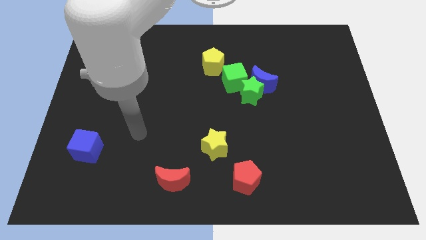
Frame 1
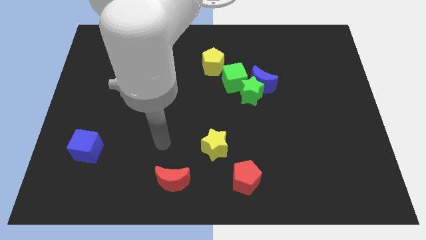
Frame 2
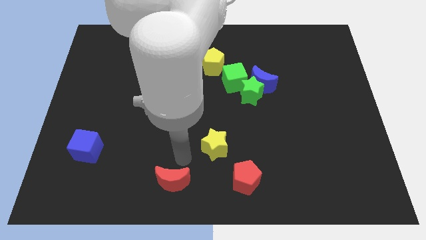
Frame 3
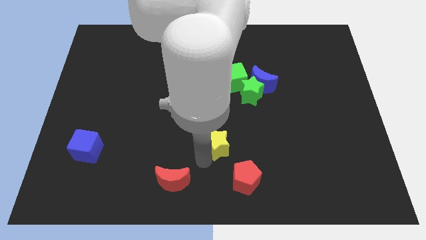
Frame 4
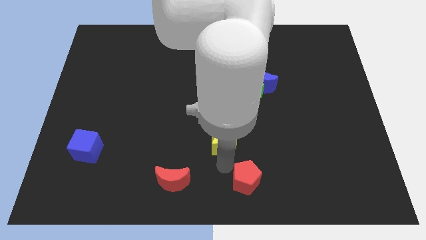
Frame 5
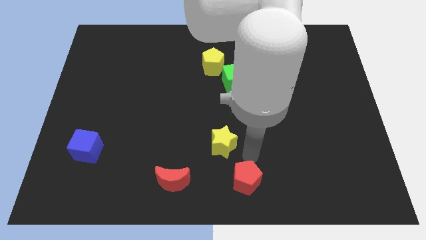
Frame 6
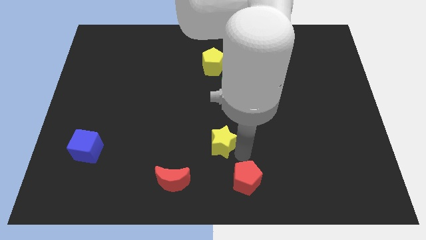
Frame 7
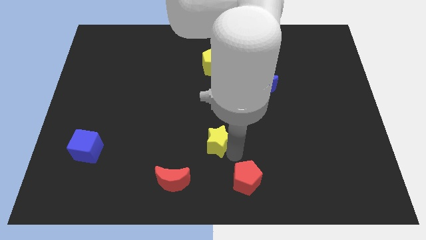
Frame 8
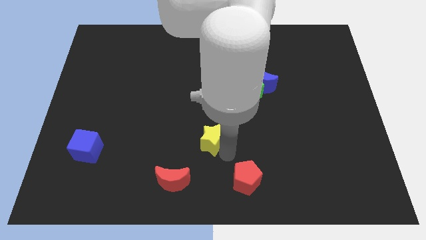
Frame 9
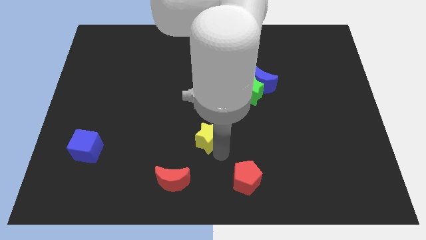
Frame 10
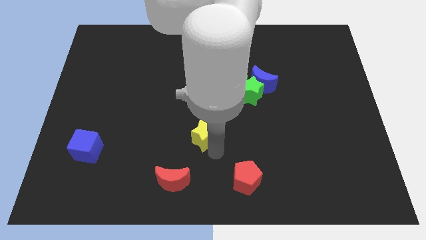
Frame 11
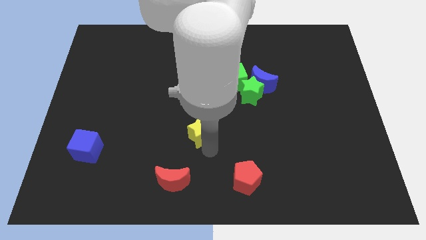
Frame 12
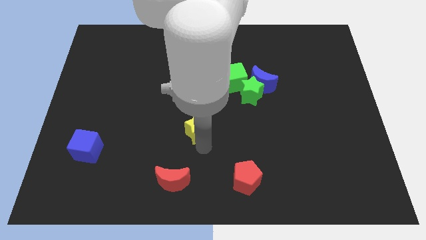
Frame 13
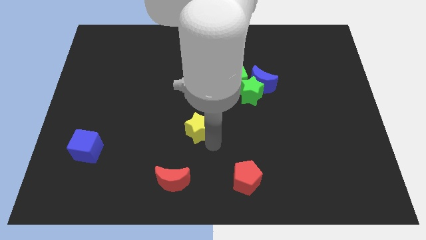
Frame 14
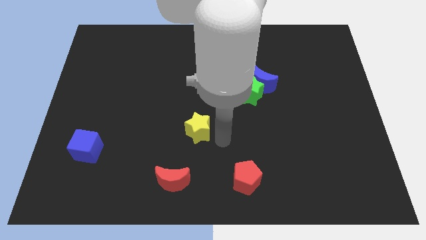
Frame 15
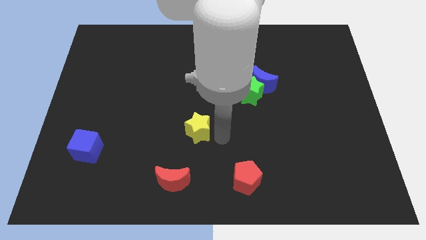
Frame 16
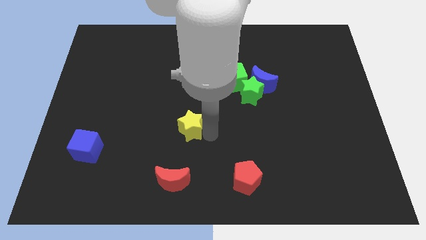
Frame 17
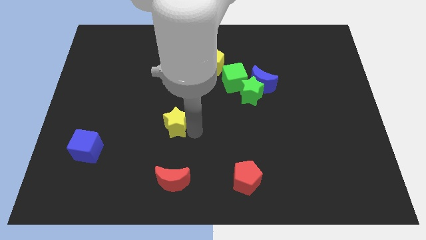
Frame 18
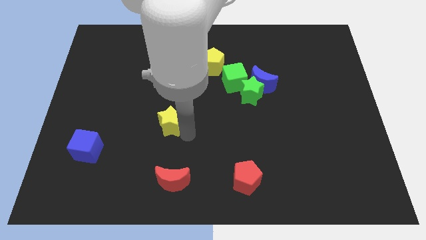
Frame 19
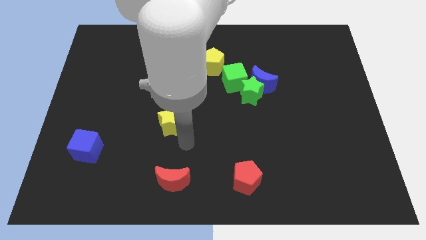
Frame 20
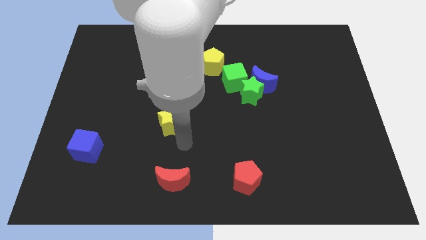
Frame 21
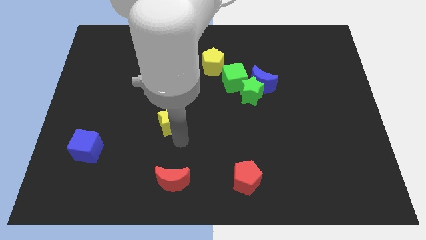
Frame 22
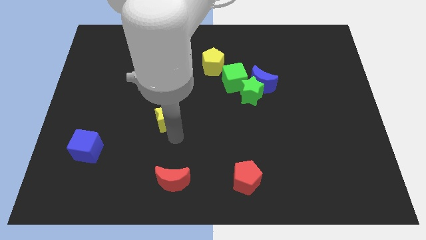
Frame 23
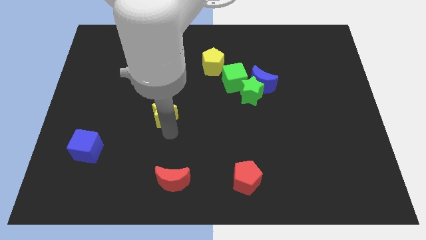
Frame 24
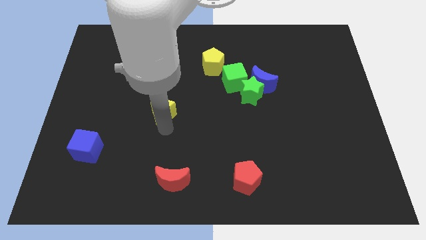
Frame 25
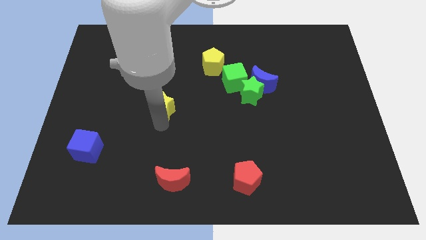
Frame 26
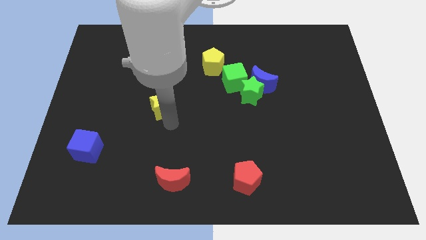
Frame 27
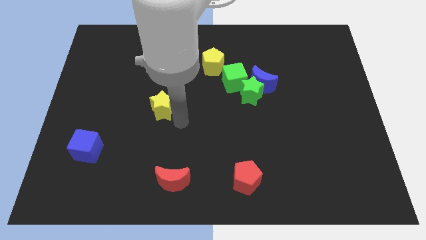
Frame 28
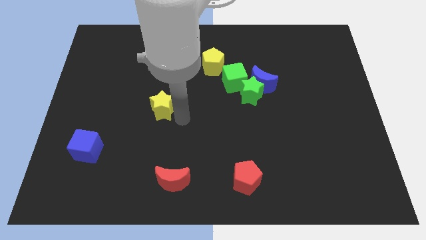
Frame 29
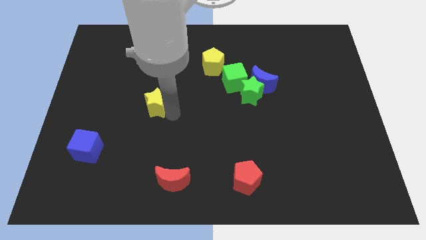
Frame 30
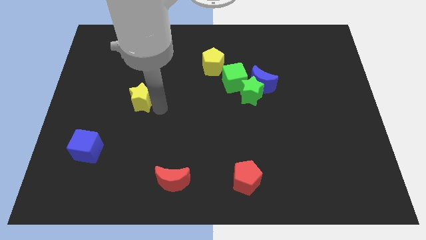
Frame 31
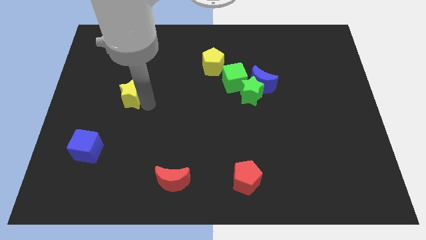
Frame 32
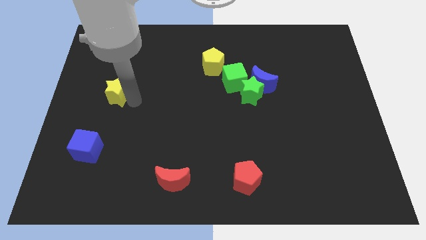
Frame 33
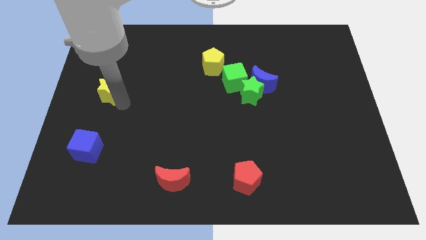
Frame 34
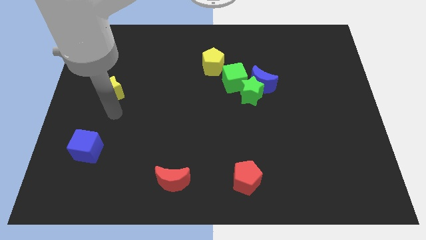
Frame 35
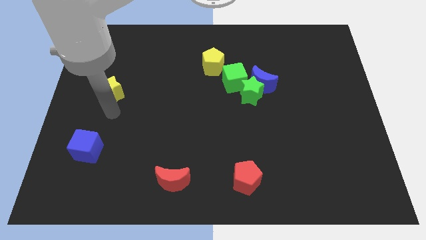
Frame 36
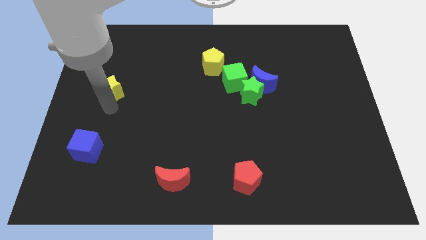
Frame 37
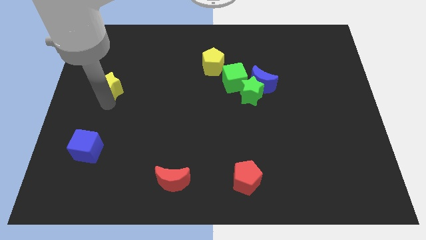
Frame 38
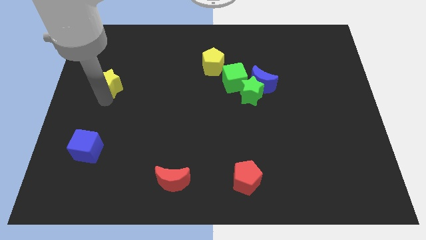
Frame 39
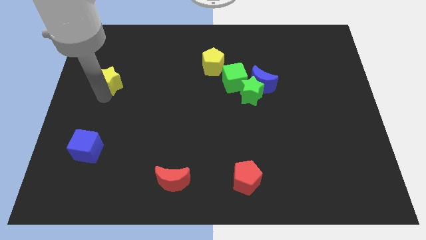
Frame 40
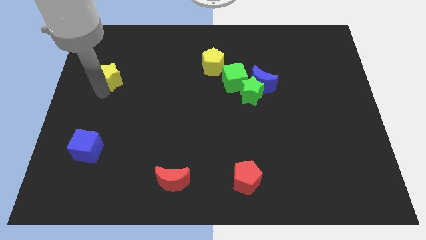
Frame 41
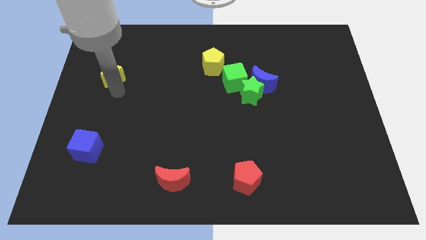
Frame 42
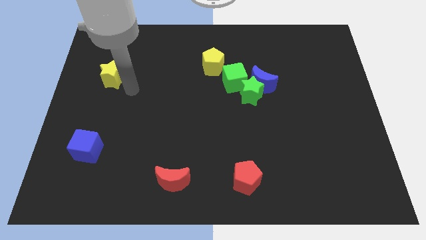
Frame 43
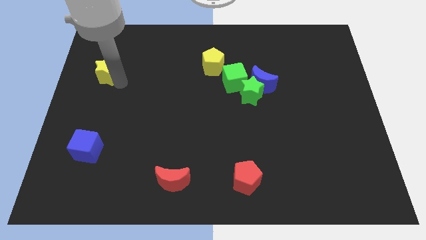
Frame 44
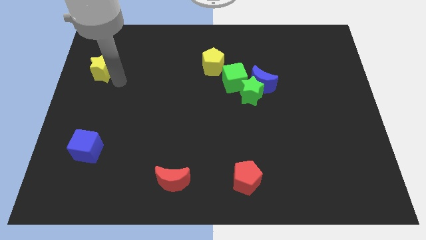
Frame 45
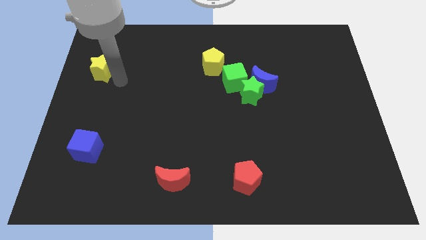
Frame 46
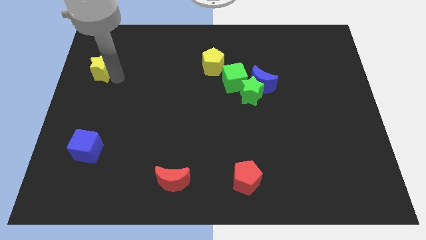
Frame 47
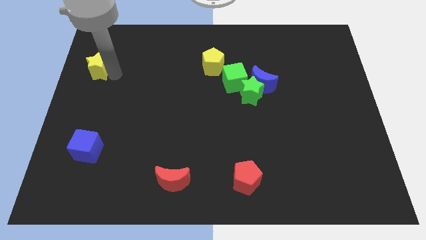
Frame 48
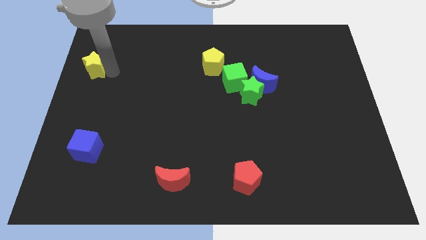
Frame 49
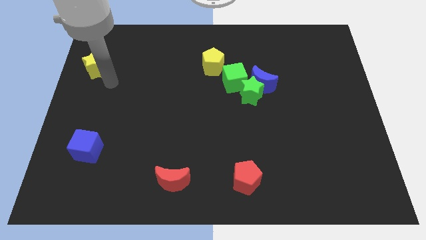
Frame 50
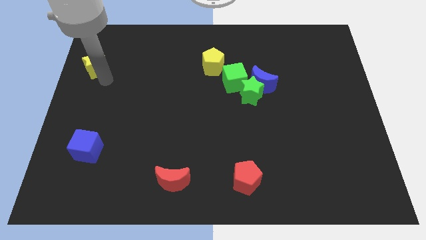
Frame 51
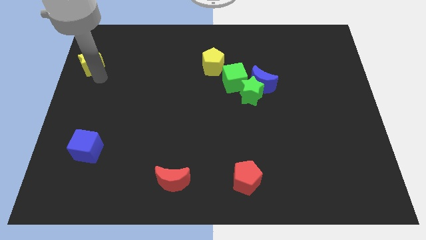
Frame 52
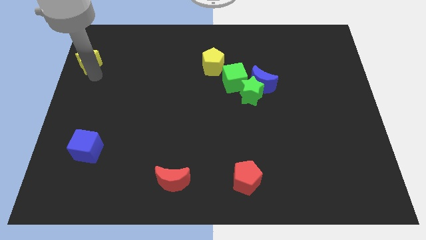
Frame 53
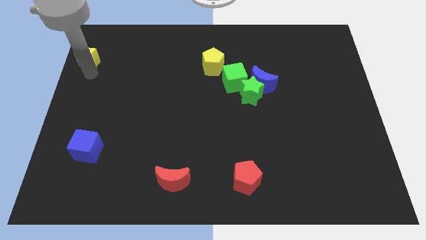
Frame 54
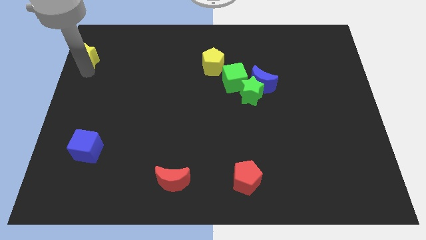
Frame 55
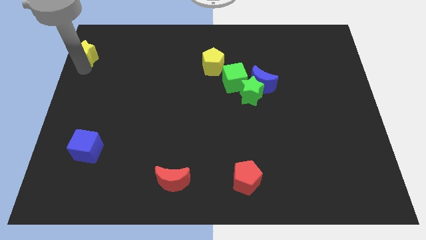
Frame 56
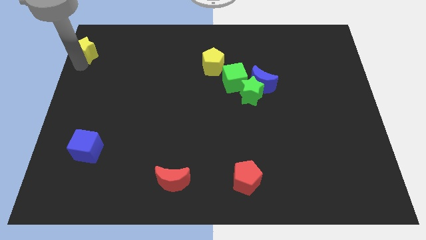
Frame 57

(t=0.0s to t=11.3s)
slide the yellow star to the top left

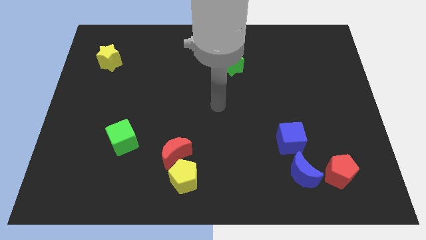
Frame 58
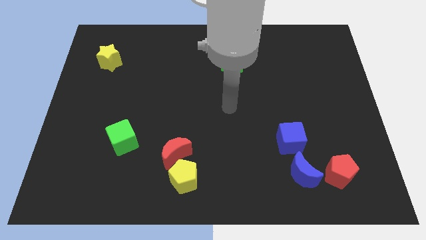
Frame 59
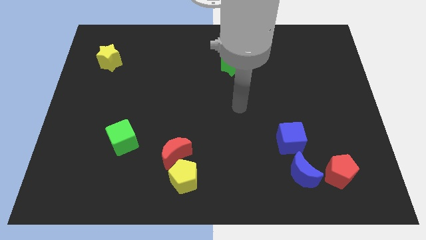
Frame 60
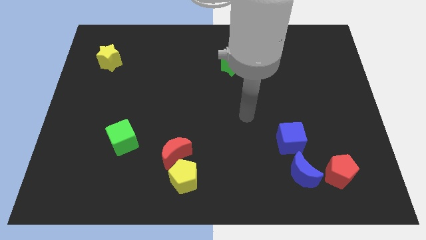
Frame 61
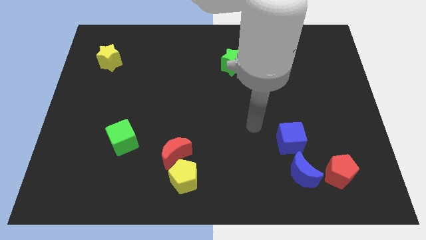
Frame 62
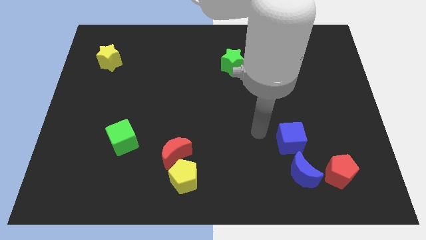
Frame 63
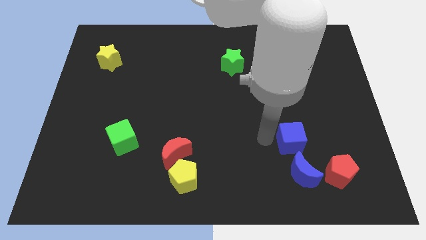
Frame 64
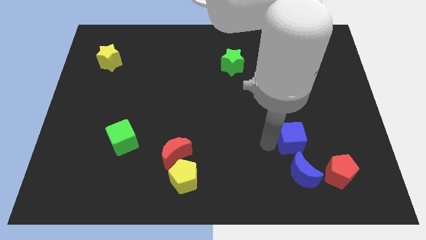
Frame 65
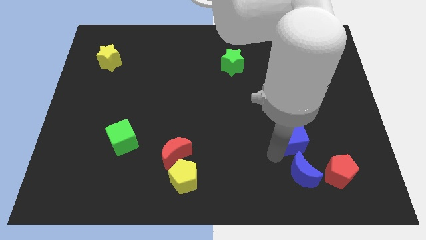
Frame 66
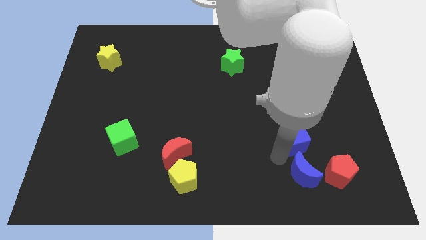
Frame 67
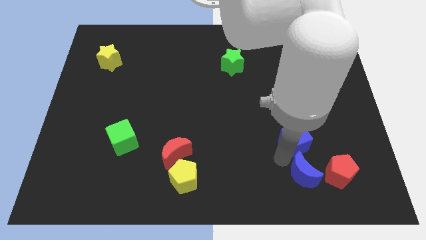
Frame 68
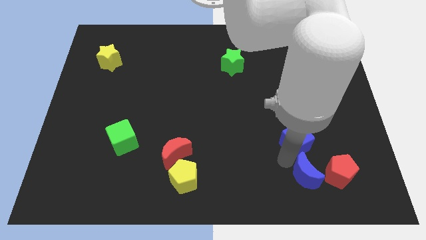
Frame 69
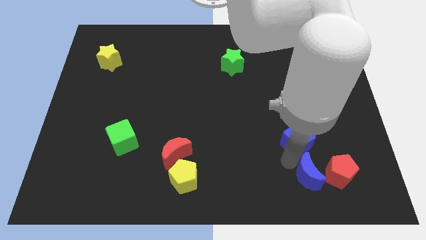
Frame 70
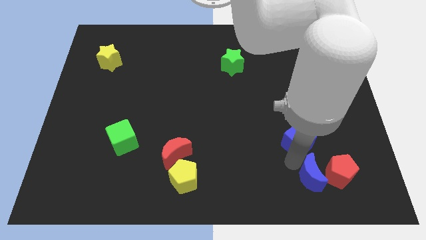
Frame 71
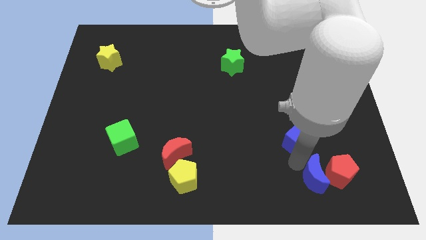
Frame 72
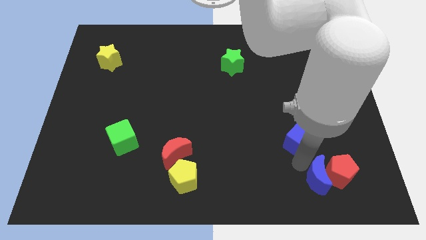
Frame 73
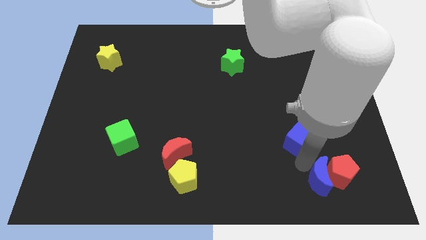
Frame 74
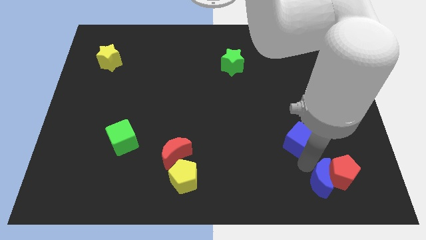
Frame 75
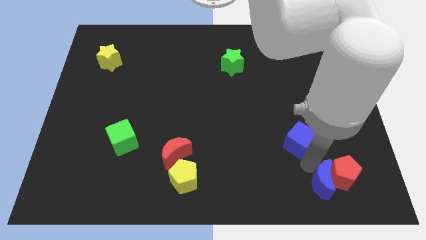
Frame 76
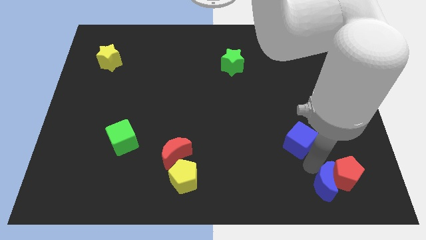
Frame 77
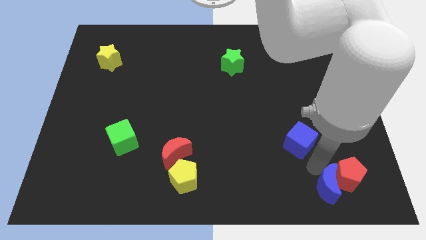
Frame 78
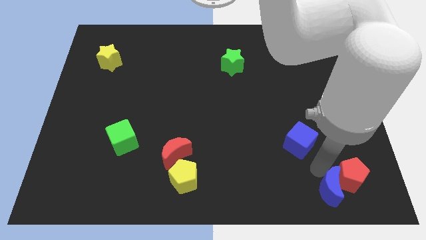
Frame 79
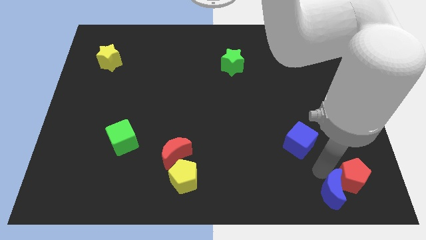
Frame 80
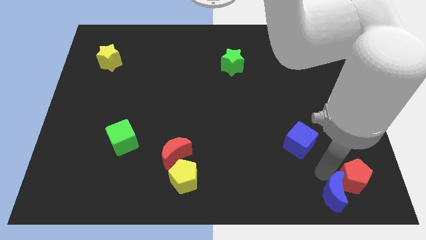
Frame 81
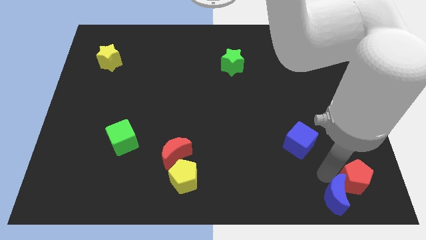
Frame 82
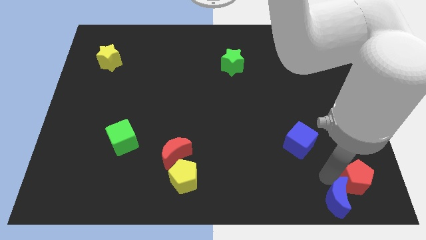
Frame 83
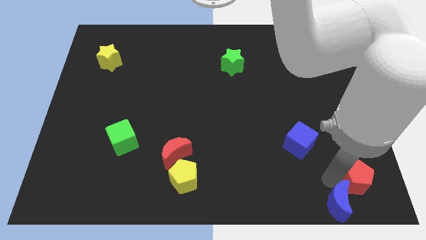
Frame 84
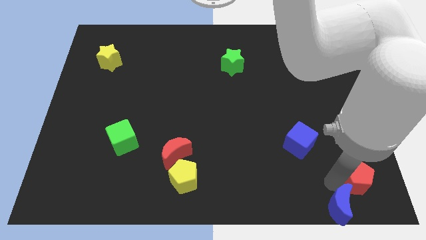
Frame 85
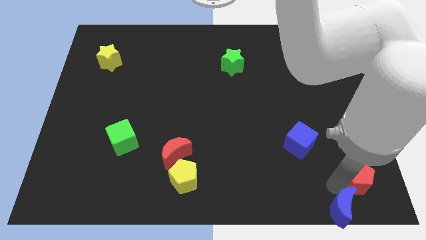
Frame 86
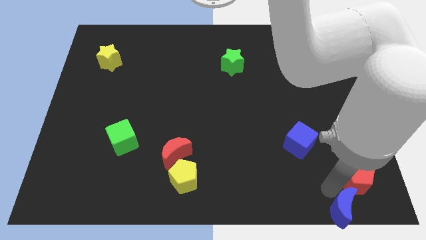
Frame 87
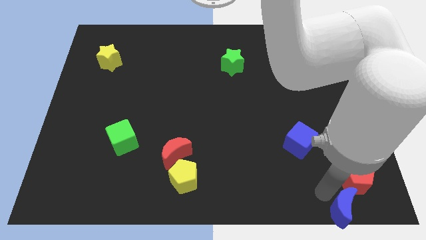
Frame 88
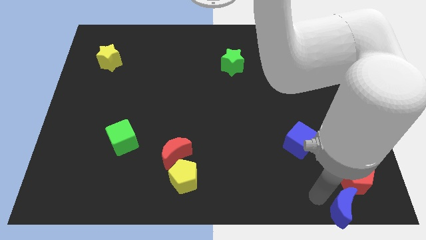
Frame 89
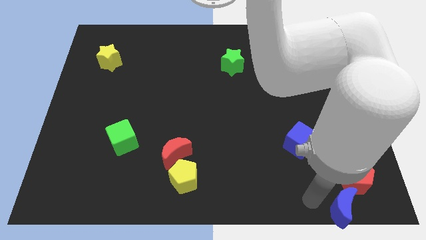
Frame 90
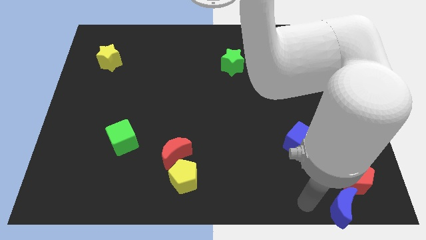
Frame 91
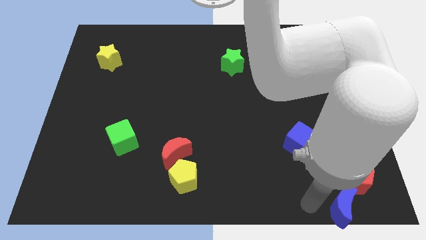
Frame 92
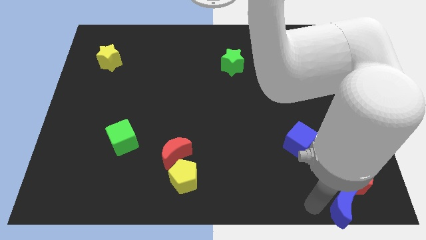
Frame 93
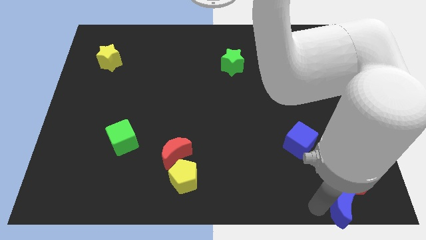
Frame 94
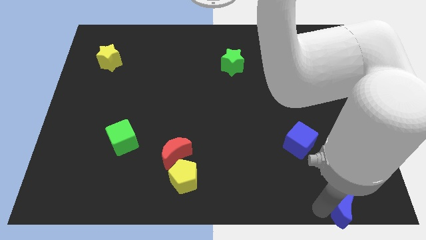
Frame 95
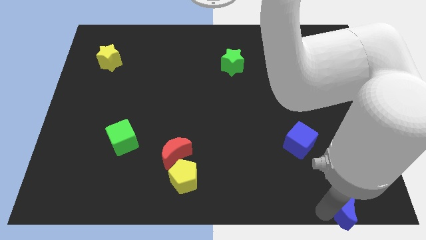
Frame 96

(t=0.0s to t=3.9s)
slide the blue moon to the bottom right
